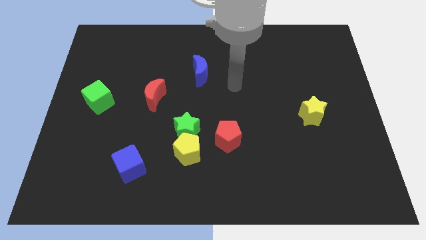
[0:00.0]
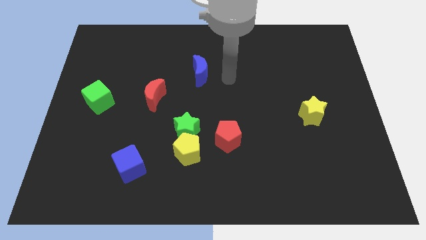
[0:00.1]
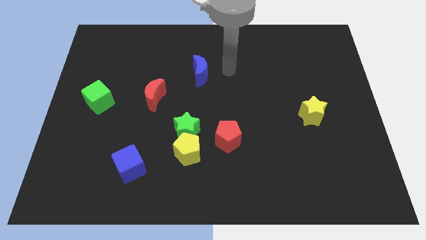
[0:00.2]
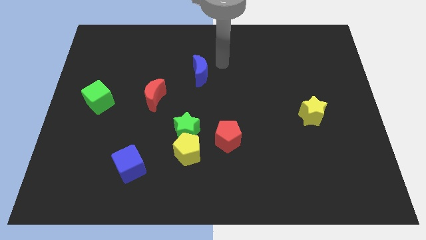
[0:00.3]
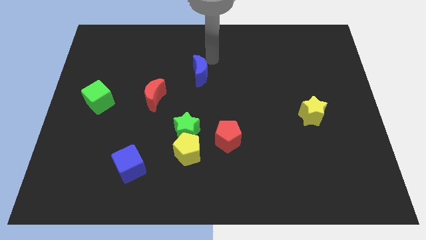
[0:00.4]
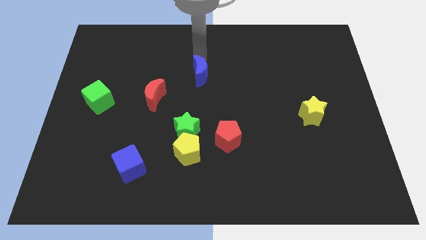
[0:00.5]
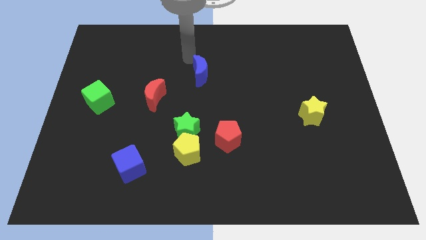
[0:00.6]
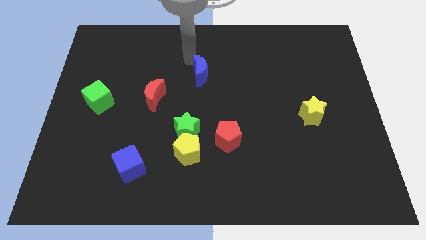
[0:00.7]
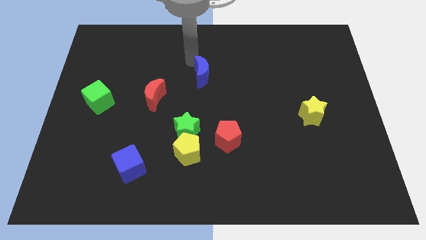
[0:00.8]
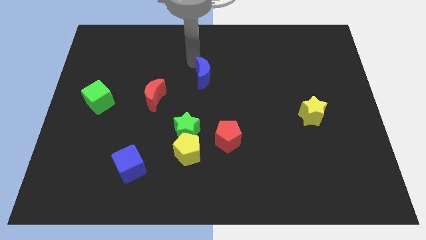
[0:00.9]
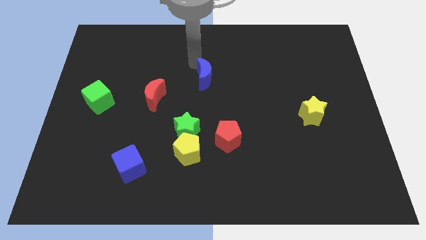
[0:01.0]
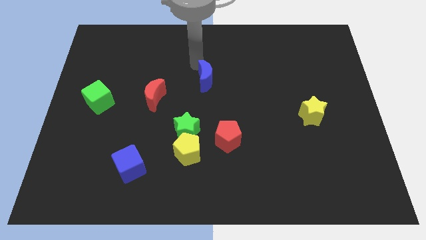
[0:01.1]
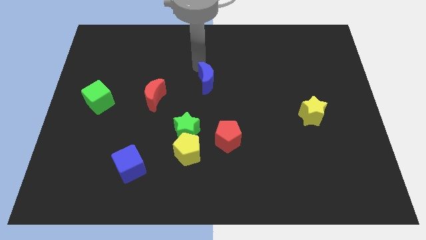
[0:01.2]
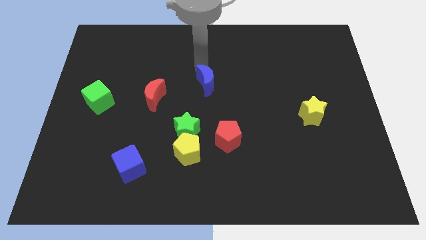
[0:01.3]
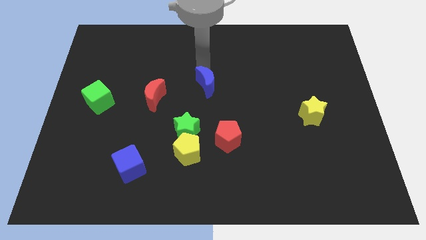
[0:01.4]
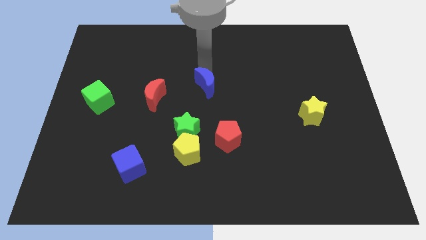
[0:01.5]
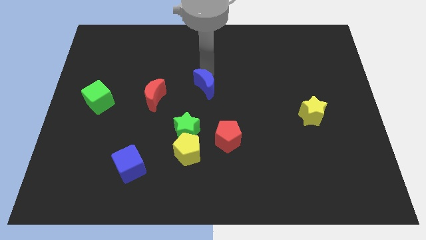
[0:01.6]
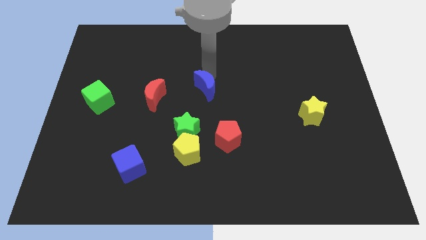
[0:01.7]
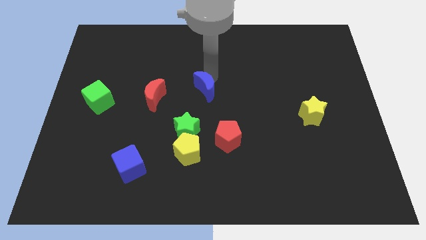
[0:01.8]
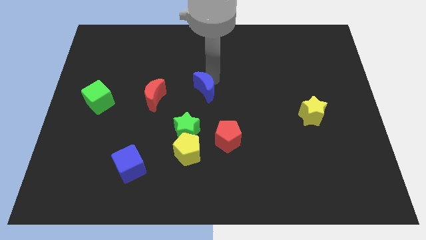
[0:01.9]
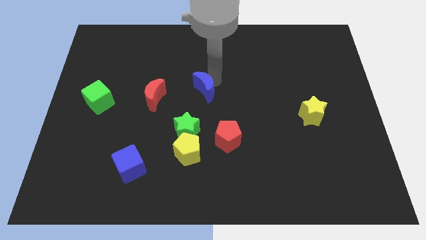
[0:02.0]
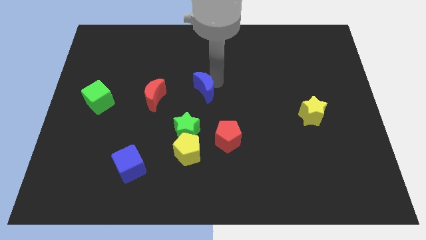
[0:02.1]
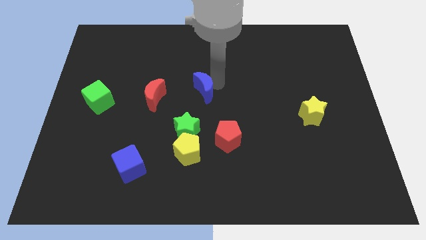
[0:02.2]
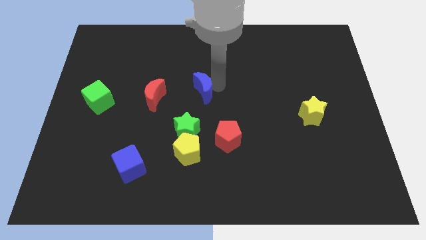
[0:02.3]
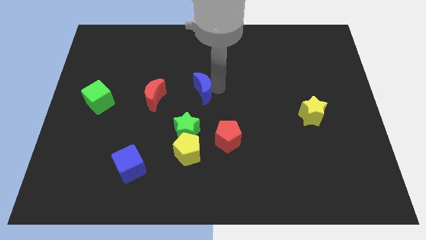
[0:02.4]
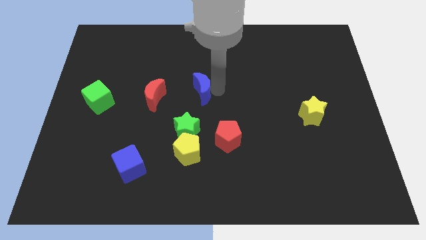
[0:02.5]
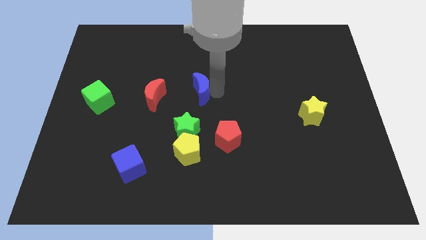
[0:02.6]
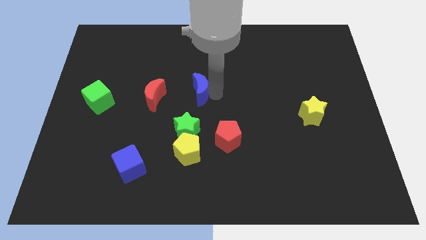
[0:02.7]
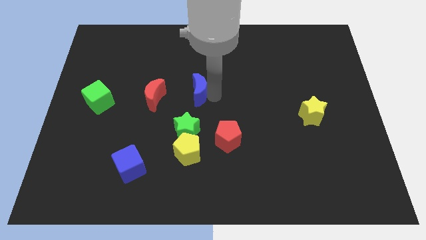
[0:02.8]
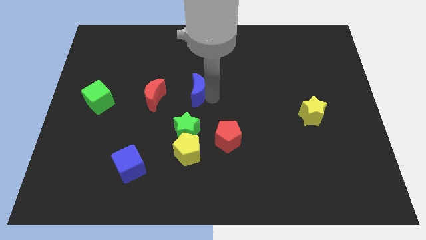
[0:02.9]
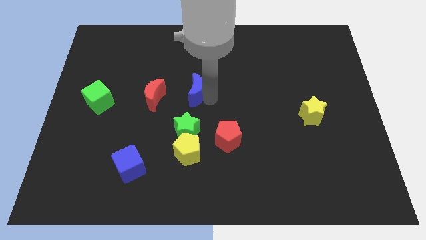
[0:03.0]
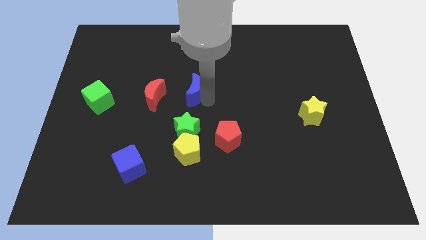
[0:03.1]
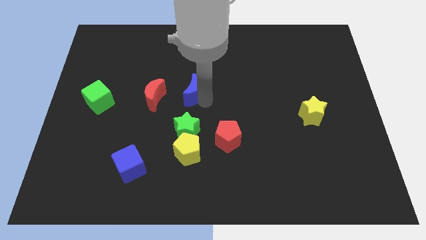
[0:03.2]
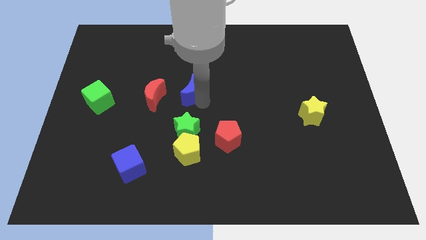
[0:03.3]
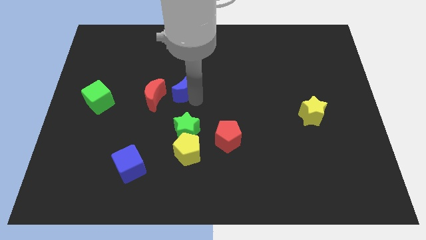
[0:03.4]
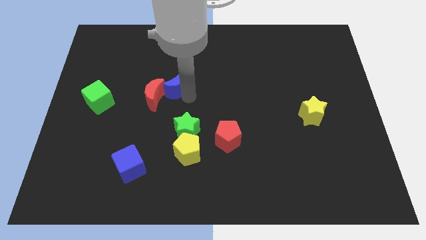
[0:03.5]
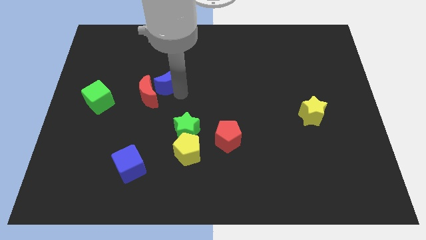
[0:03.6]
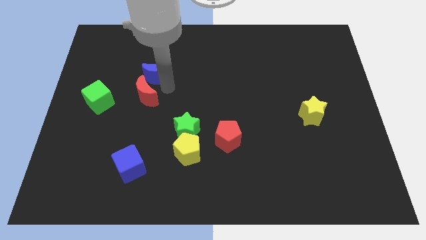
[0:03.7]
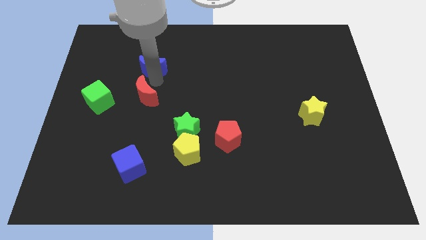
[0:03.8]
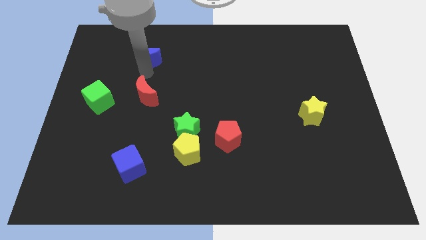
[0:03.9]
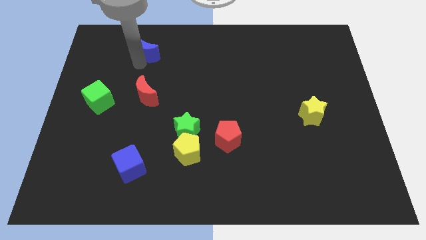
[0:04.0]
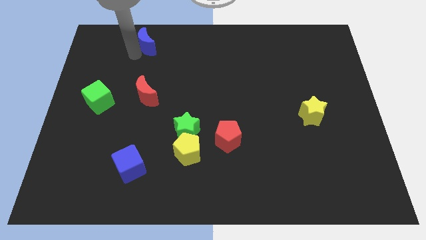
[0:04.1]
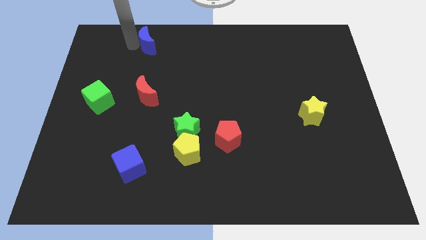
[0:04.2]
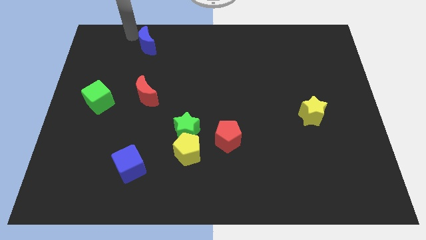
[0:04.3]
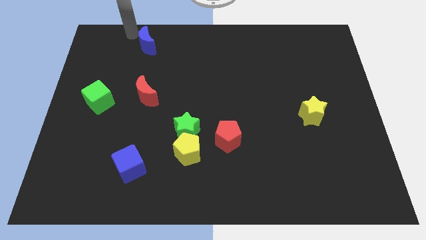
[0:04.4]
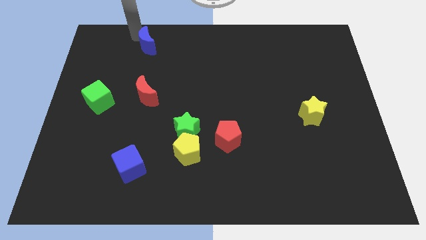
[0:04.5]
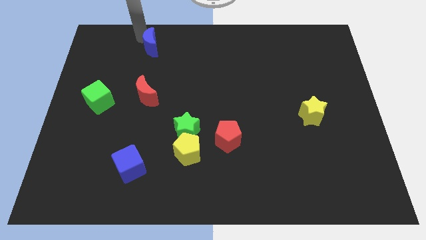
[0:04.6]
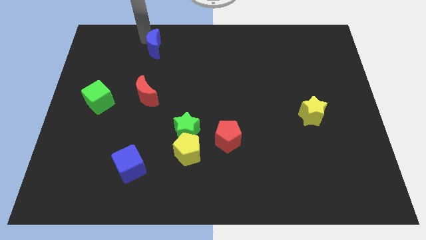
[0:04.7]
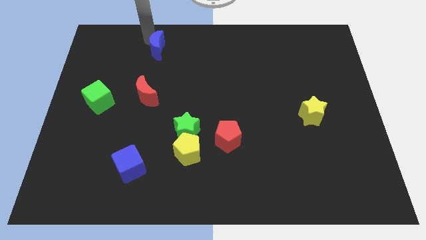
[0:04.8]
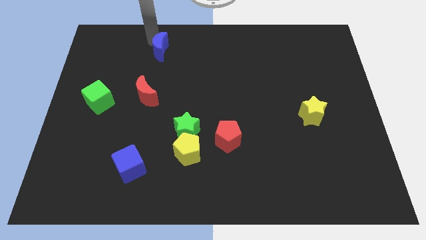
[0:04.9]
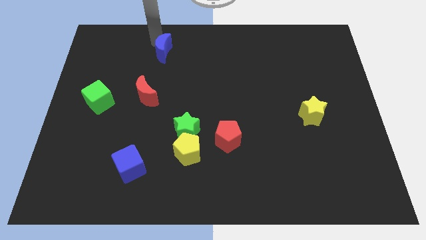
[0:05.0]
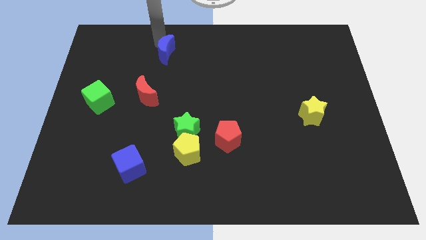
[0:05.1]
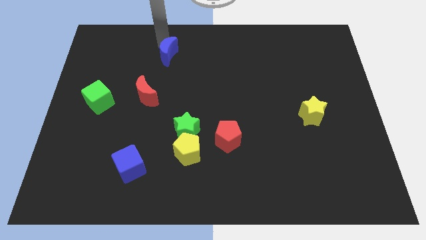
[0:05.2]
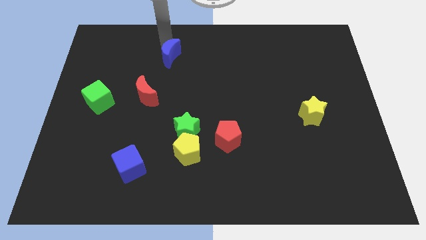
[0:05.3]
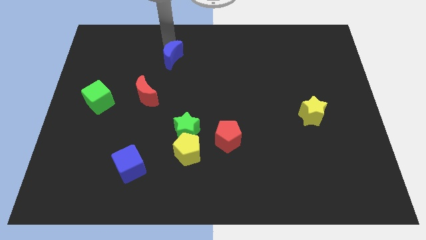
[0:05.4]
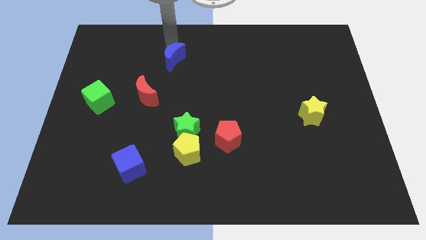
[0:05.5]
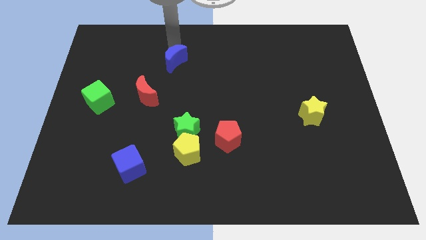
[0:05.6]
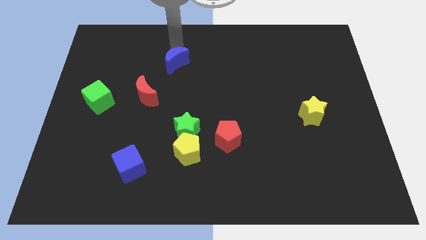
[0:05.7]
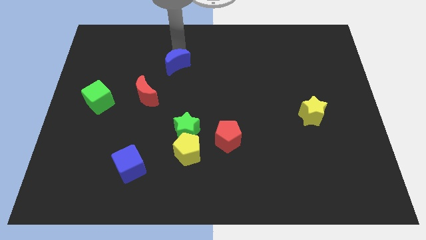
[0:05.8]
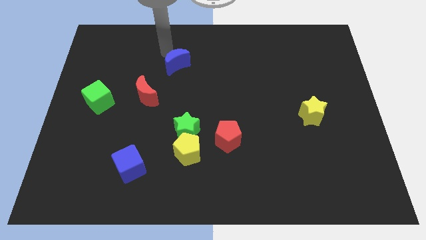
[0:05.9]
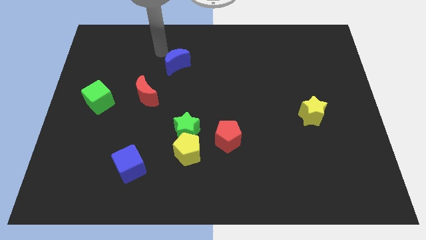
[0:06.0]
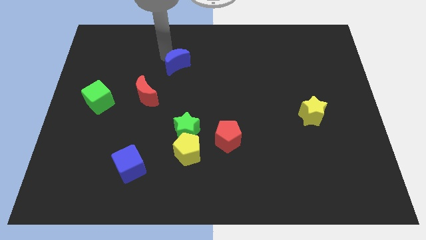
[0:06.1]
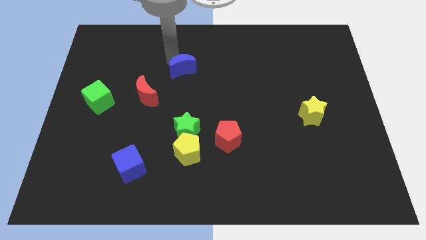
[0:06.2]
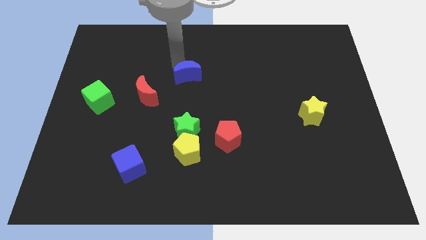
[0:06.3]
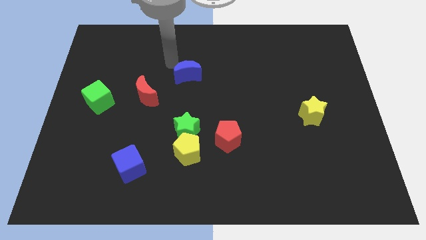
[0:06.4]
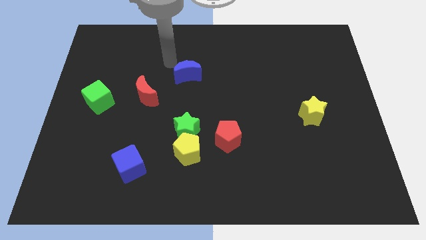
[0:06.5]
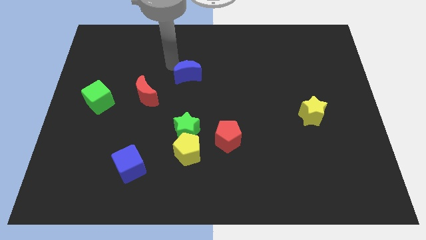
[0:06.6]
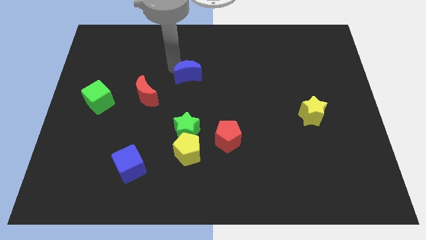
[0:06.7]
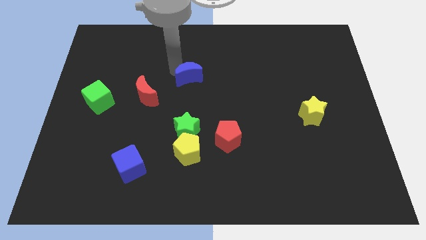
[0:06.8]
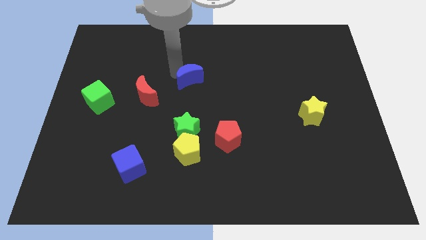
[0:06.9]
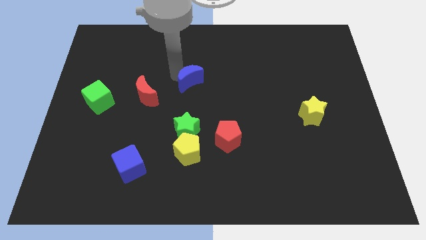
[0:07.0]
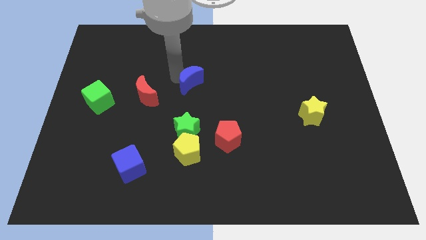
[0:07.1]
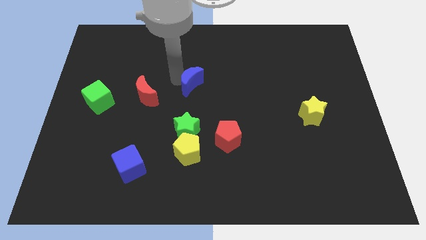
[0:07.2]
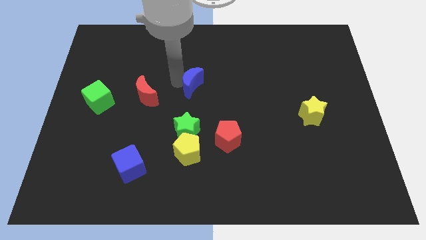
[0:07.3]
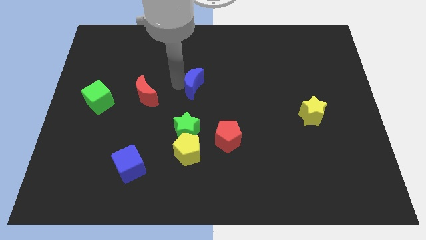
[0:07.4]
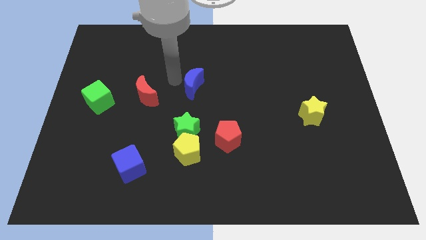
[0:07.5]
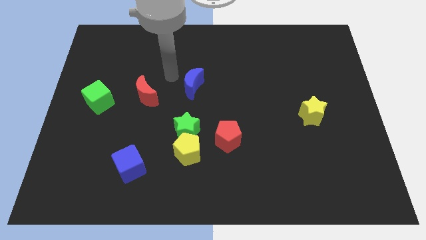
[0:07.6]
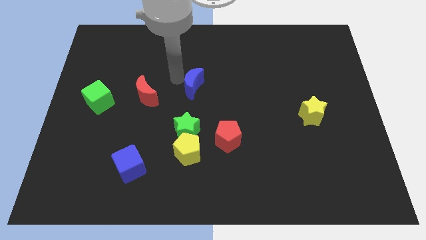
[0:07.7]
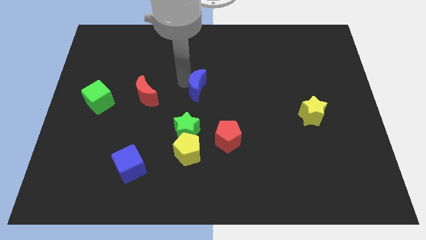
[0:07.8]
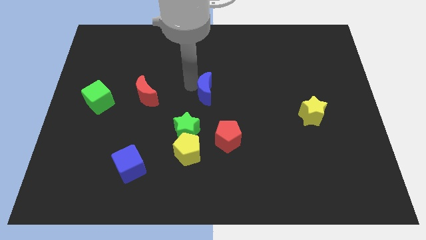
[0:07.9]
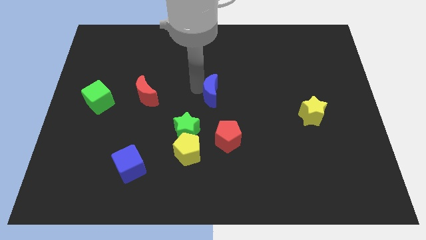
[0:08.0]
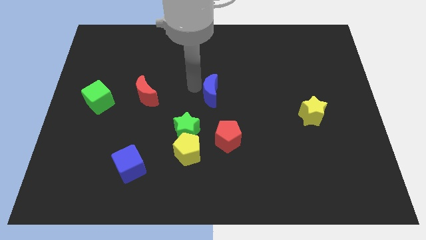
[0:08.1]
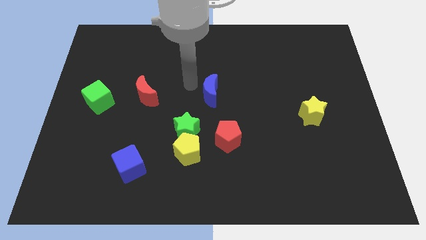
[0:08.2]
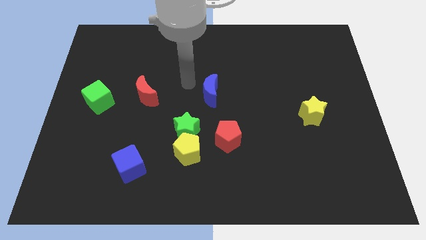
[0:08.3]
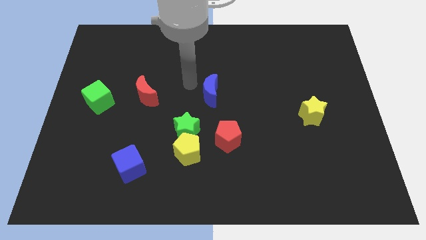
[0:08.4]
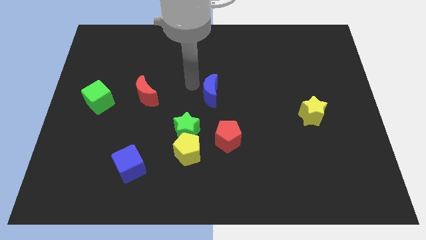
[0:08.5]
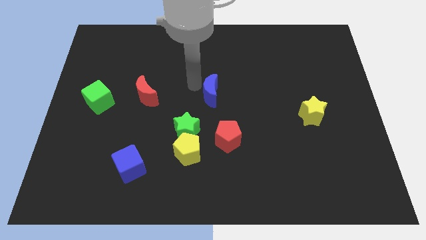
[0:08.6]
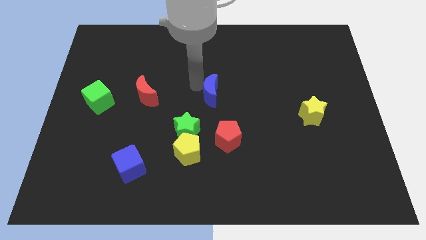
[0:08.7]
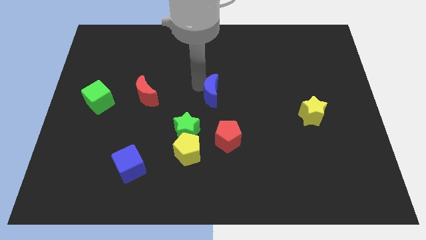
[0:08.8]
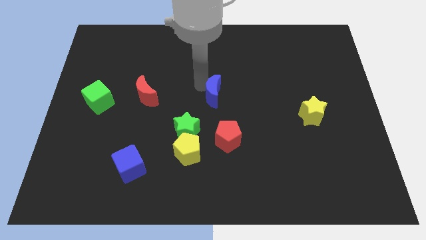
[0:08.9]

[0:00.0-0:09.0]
move the blue moon downwards and then right a bit
